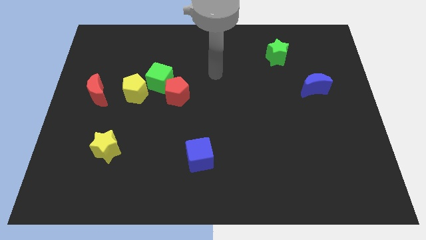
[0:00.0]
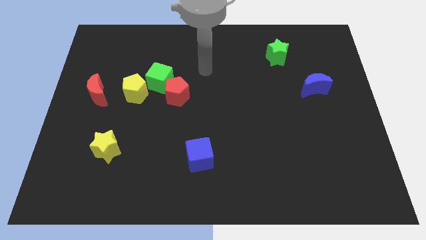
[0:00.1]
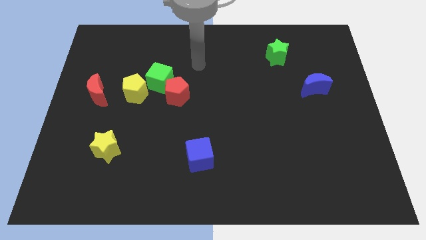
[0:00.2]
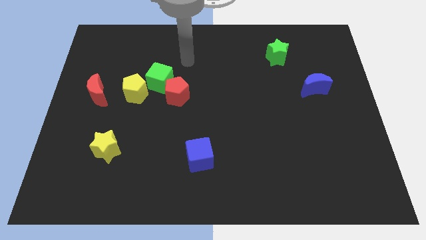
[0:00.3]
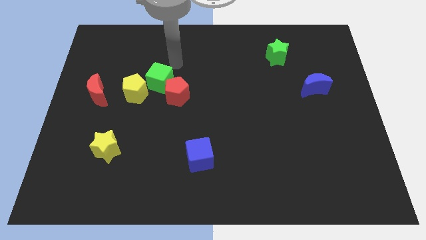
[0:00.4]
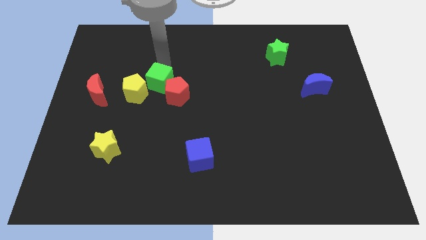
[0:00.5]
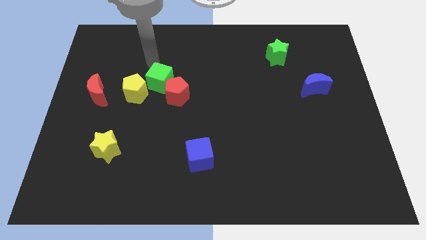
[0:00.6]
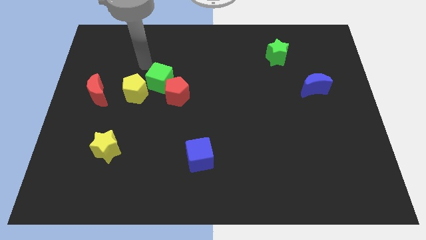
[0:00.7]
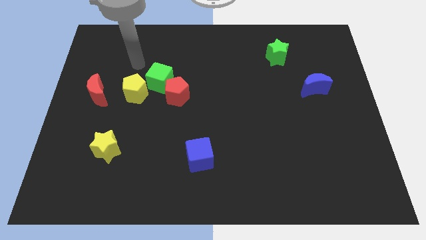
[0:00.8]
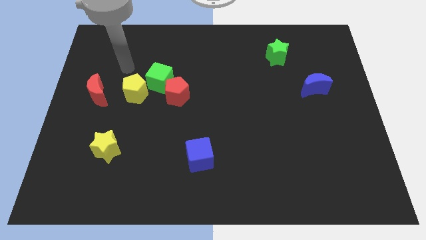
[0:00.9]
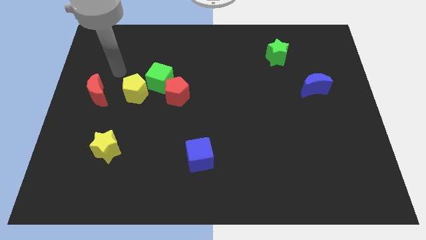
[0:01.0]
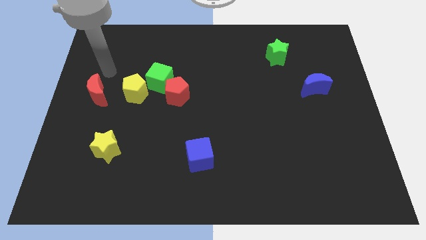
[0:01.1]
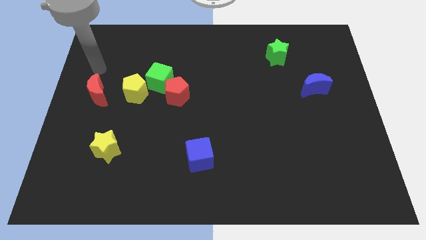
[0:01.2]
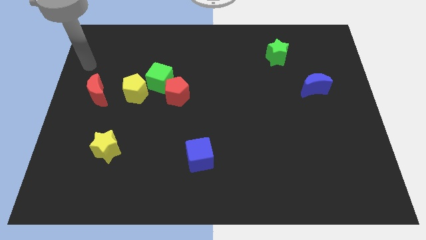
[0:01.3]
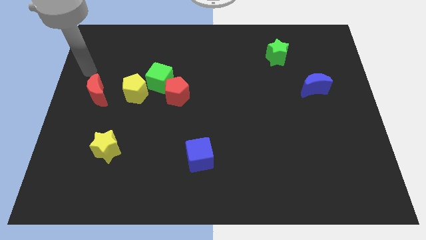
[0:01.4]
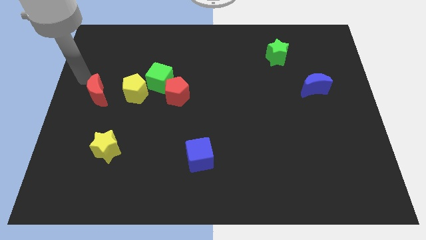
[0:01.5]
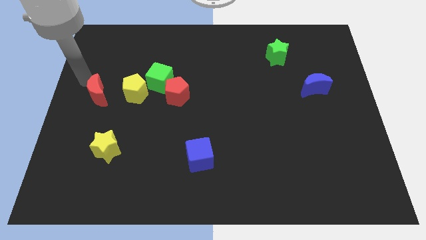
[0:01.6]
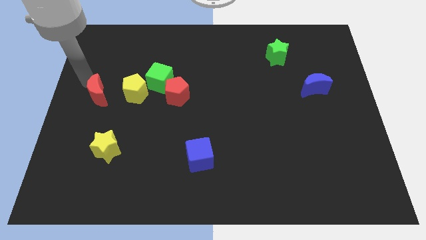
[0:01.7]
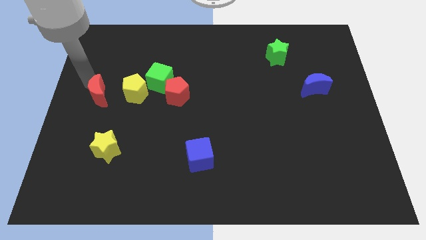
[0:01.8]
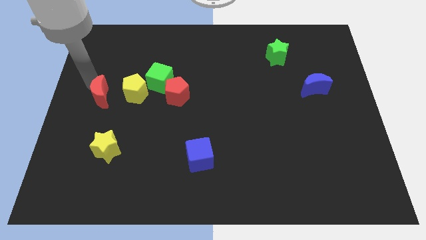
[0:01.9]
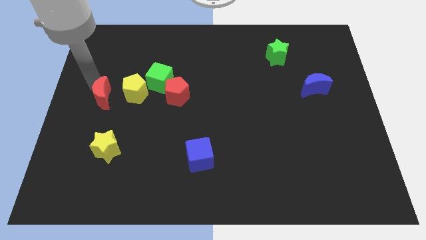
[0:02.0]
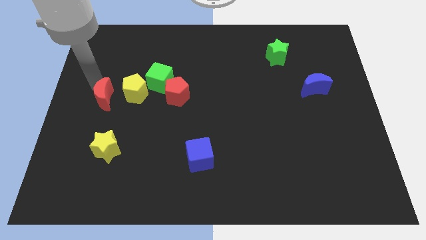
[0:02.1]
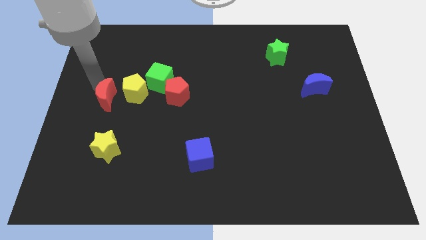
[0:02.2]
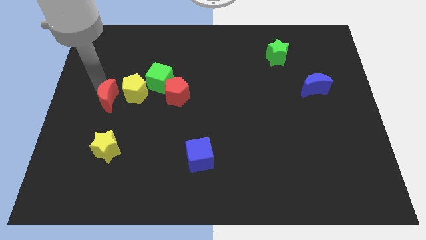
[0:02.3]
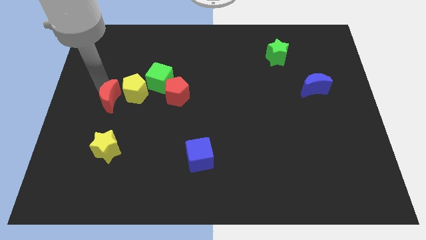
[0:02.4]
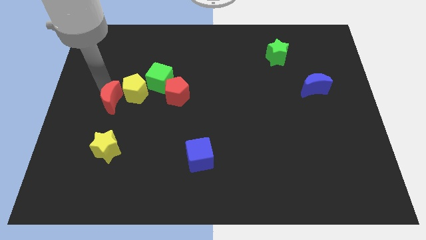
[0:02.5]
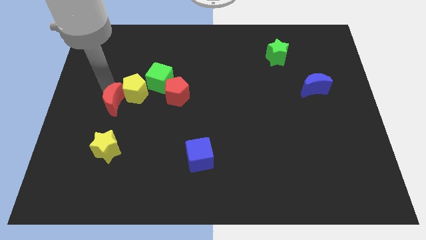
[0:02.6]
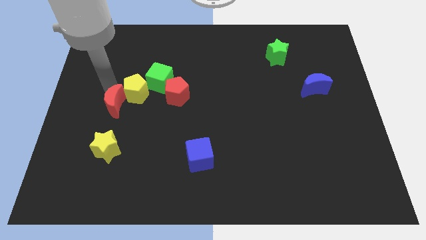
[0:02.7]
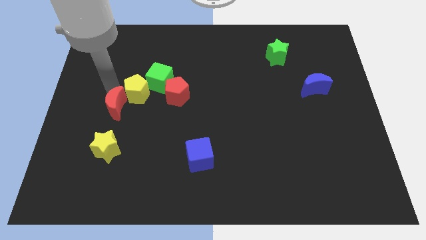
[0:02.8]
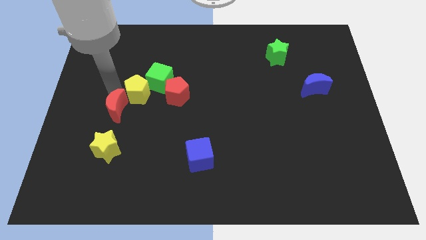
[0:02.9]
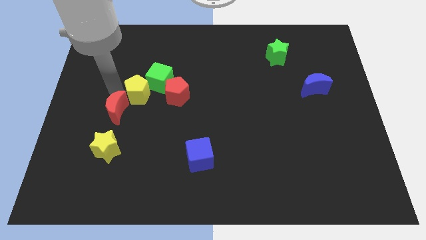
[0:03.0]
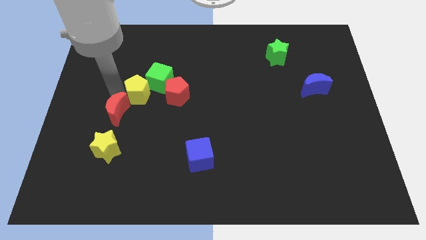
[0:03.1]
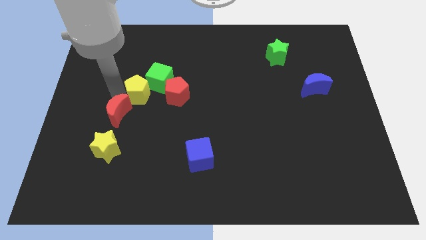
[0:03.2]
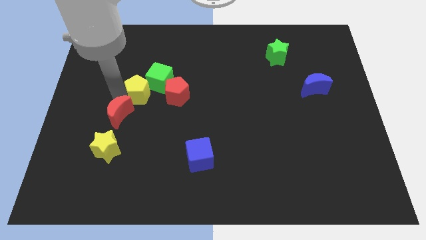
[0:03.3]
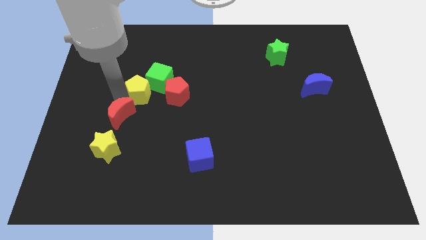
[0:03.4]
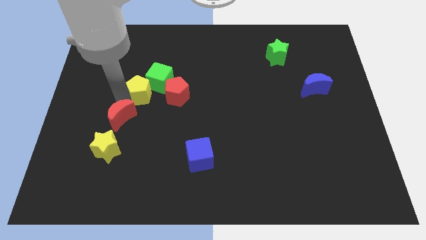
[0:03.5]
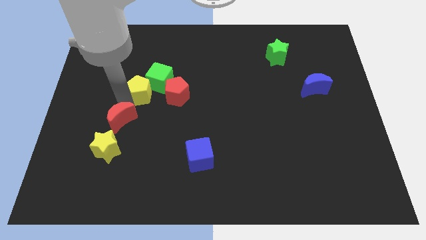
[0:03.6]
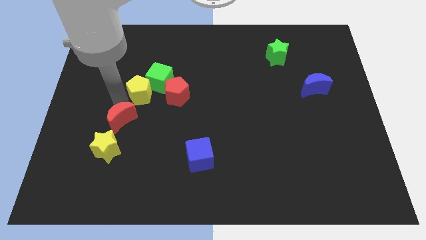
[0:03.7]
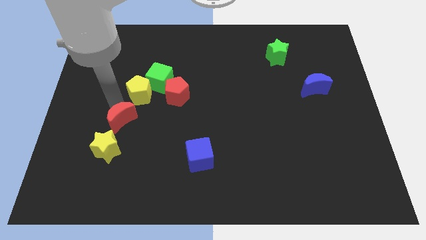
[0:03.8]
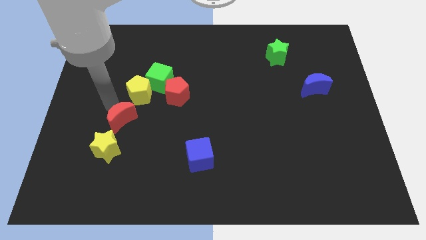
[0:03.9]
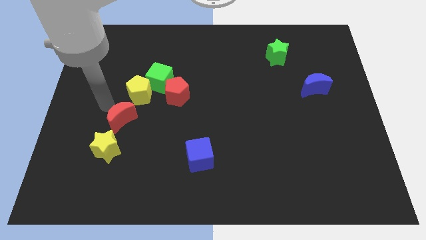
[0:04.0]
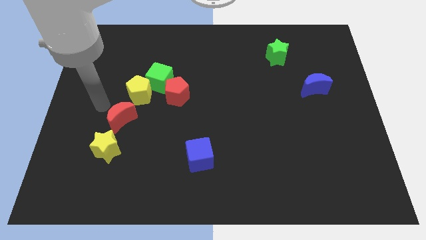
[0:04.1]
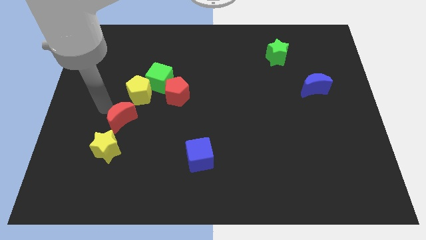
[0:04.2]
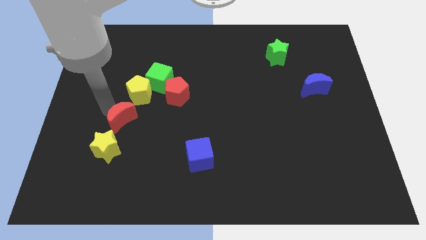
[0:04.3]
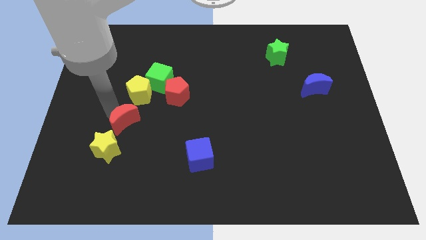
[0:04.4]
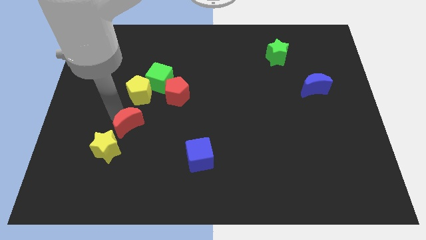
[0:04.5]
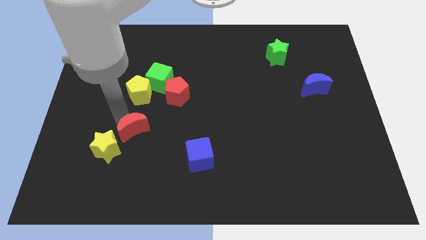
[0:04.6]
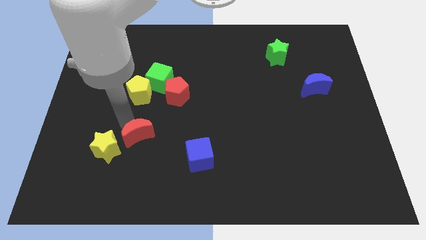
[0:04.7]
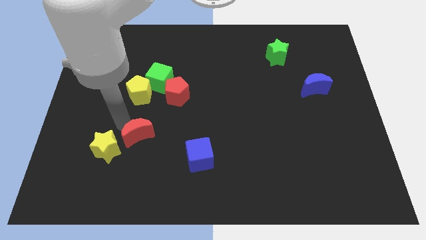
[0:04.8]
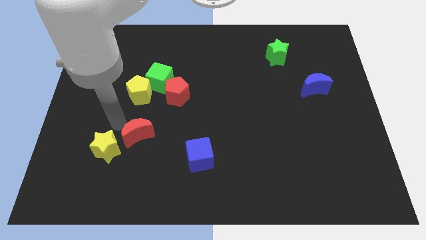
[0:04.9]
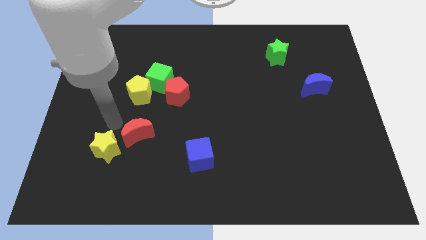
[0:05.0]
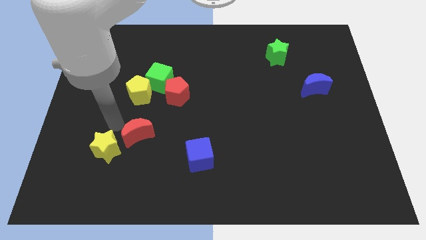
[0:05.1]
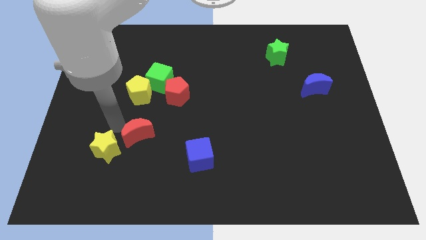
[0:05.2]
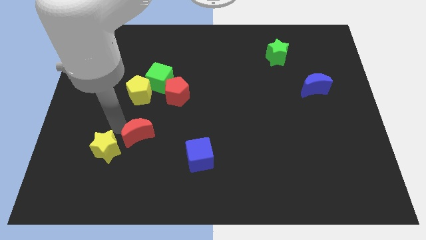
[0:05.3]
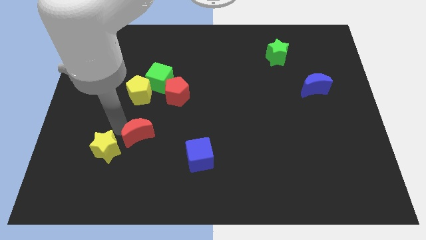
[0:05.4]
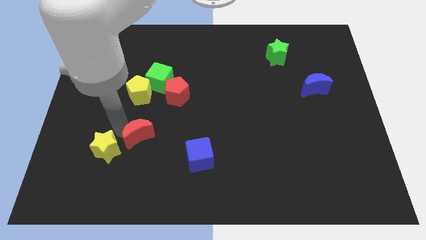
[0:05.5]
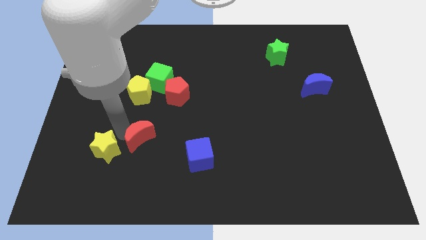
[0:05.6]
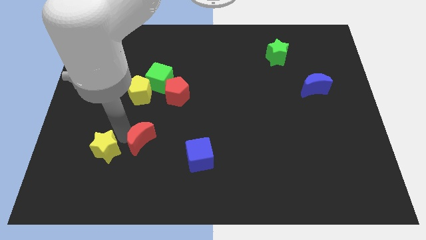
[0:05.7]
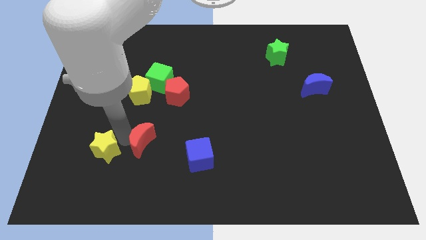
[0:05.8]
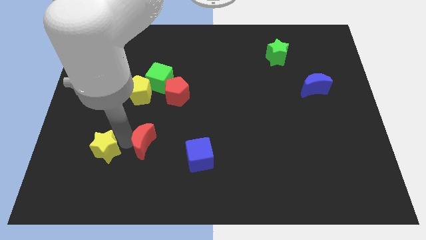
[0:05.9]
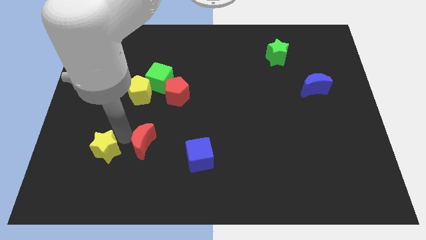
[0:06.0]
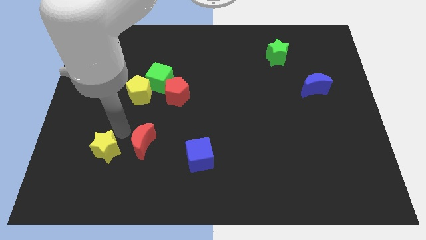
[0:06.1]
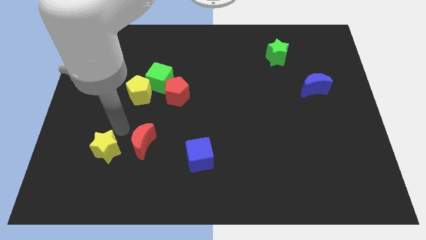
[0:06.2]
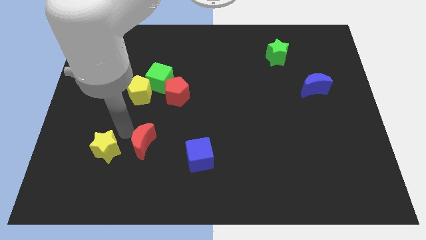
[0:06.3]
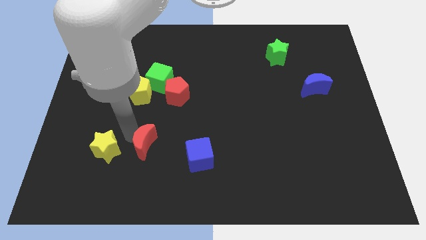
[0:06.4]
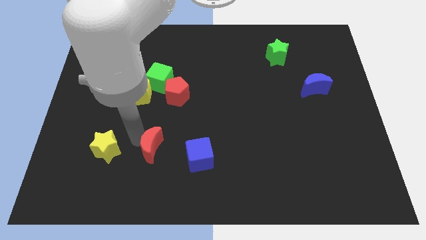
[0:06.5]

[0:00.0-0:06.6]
move the red moon down and then right

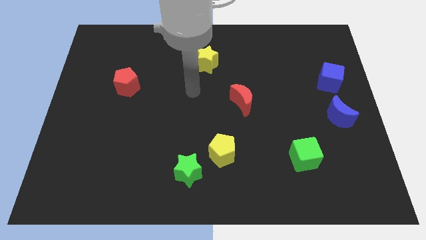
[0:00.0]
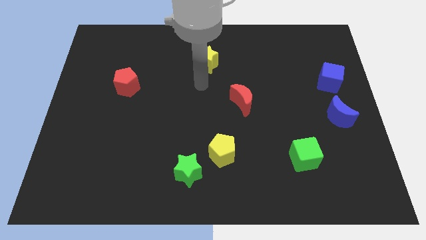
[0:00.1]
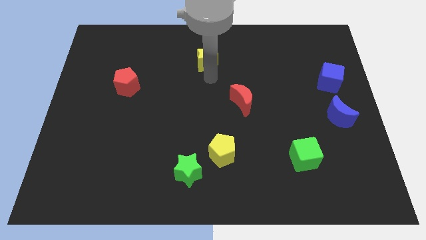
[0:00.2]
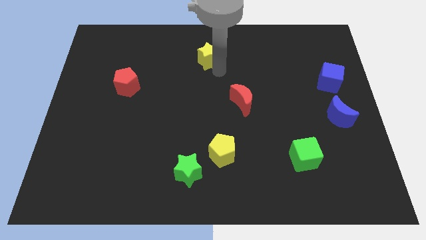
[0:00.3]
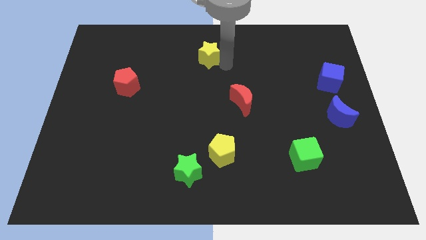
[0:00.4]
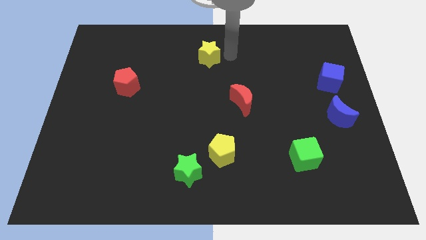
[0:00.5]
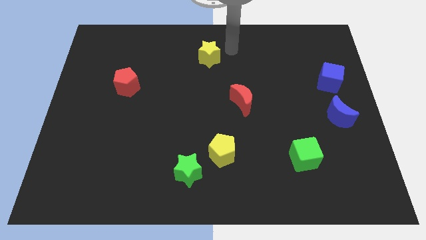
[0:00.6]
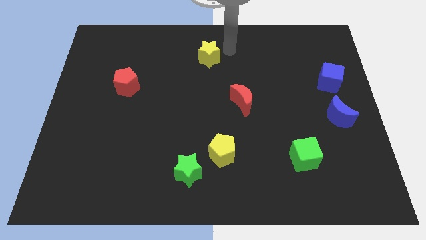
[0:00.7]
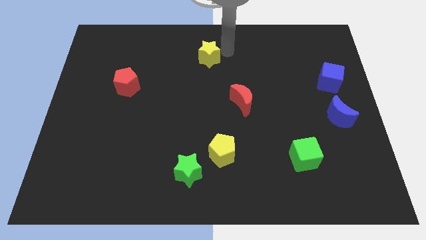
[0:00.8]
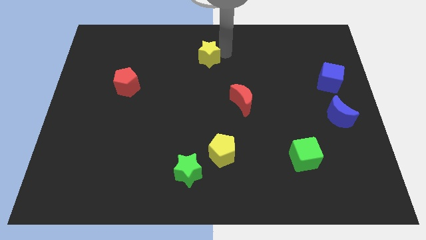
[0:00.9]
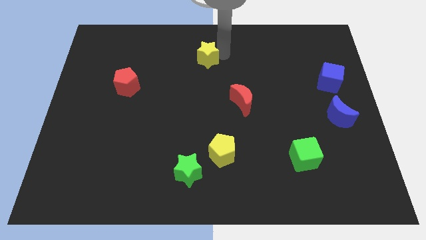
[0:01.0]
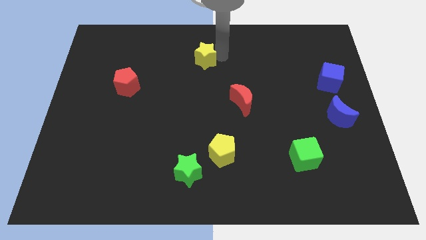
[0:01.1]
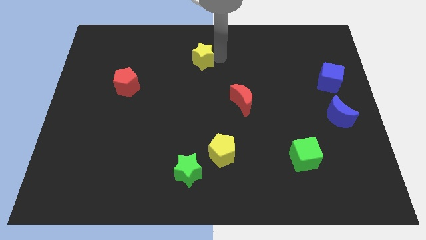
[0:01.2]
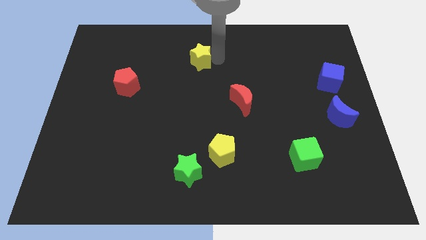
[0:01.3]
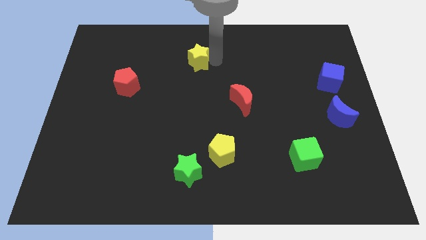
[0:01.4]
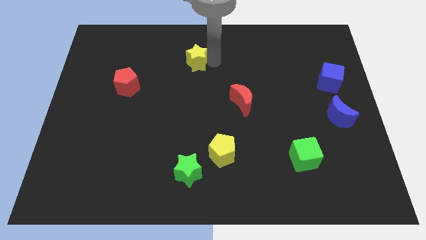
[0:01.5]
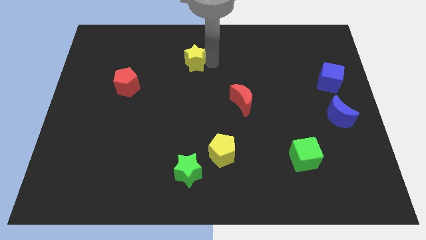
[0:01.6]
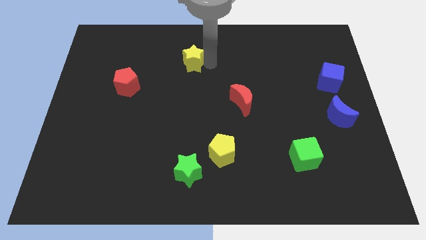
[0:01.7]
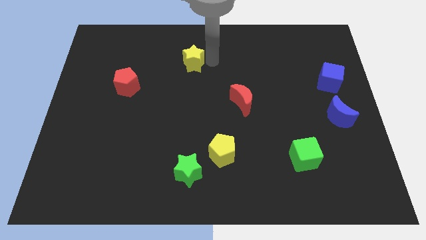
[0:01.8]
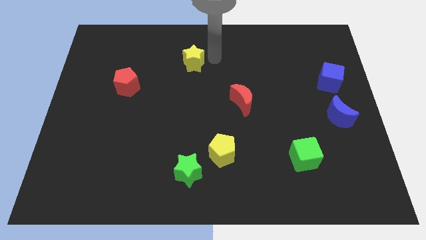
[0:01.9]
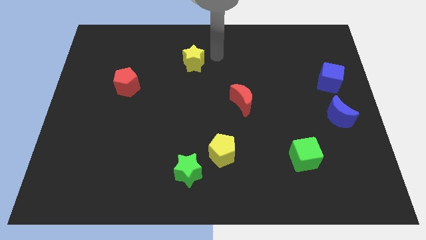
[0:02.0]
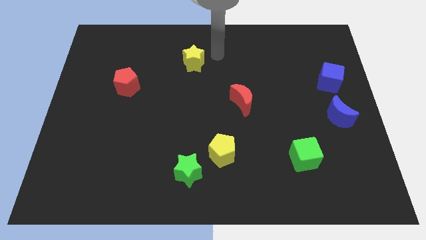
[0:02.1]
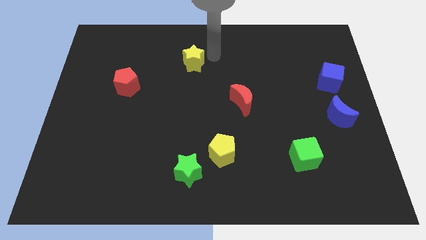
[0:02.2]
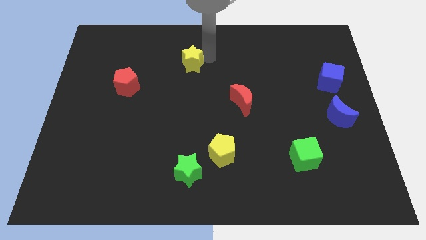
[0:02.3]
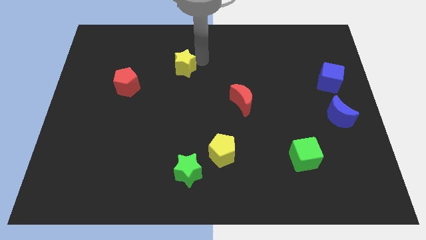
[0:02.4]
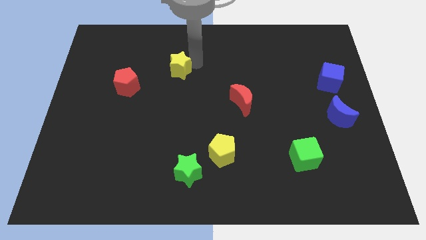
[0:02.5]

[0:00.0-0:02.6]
move the yellow star a little to the left
